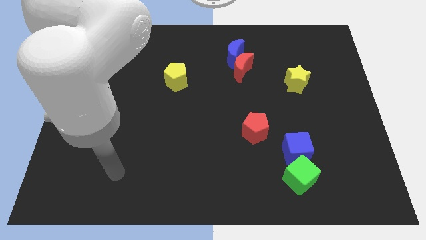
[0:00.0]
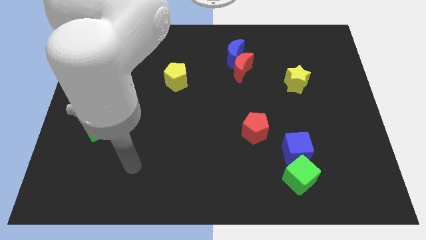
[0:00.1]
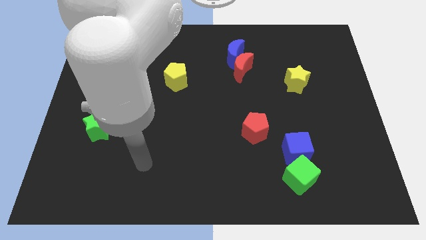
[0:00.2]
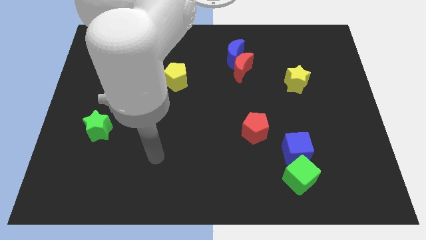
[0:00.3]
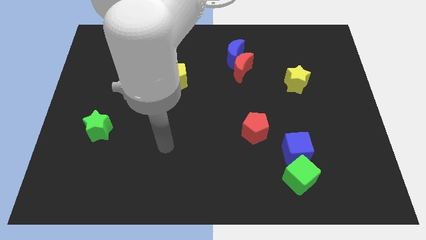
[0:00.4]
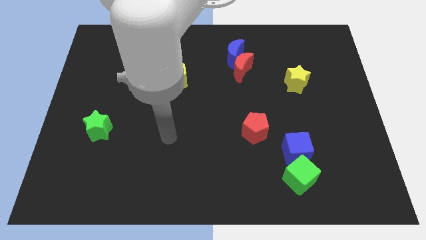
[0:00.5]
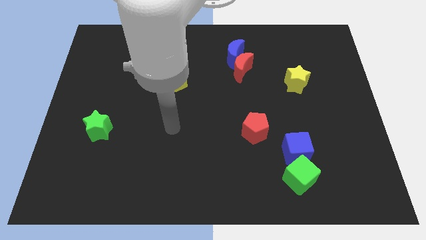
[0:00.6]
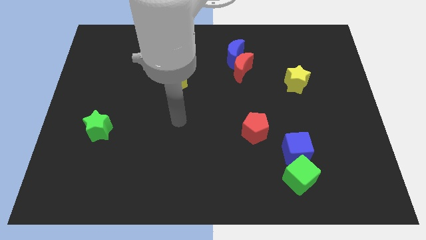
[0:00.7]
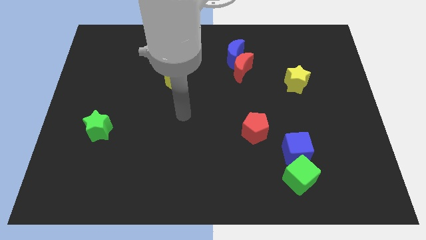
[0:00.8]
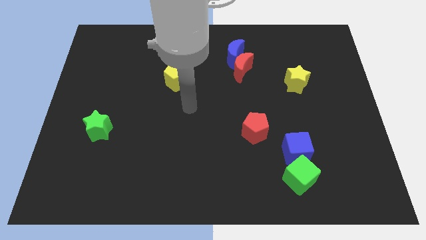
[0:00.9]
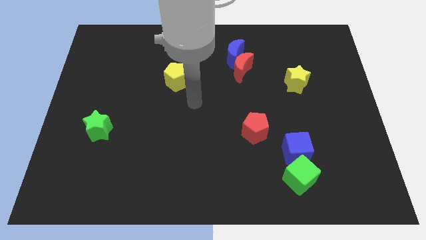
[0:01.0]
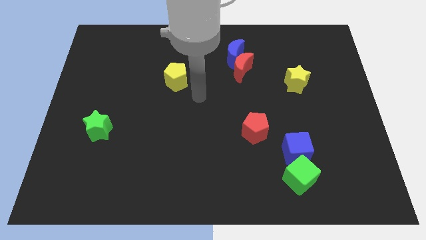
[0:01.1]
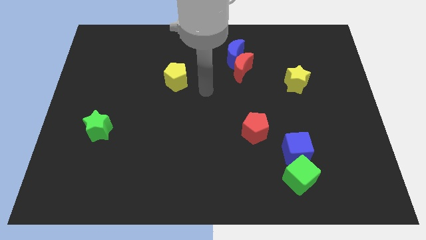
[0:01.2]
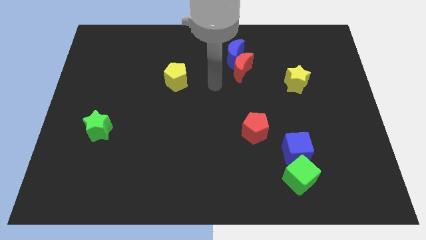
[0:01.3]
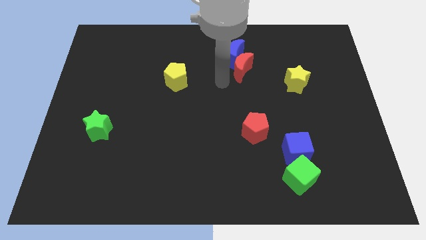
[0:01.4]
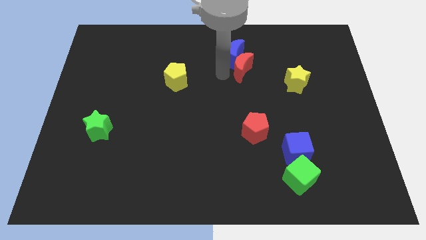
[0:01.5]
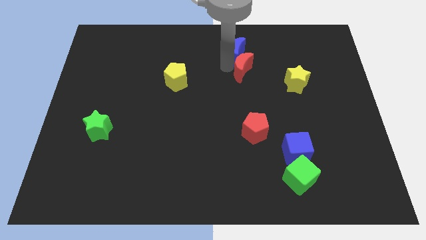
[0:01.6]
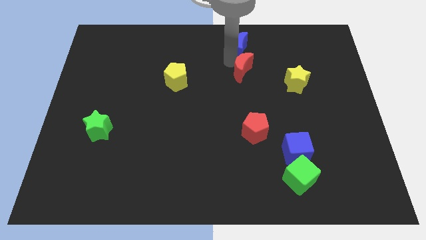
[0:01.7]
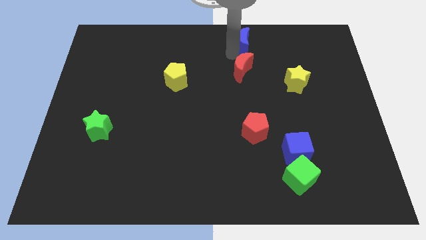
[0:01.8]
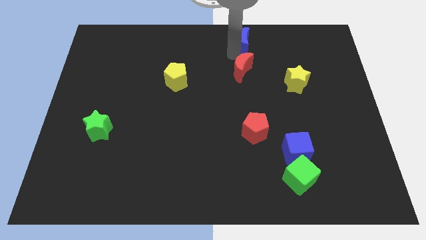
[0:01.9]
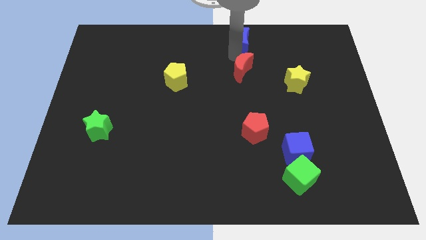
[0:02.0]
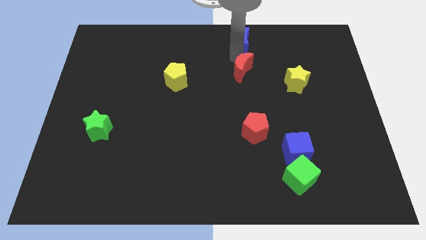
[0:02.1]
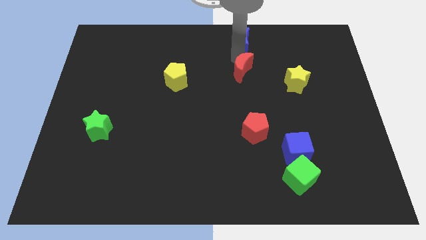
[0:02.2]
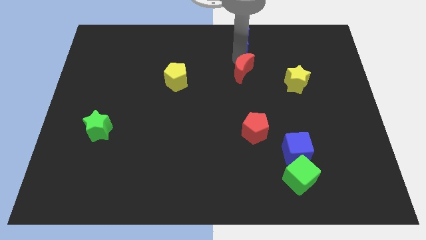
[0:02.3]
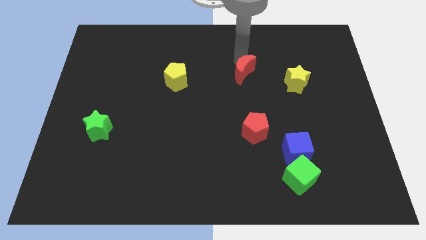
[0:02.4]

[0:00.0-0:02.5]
pull the red moon apart from the blue moon

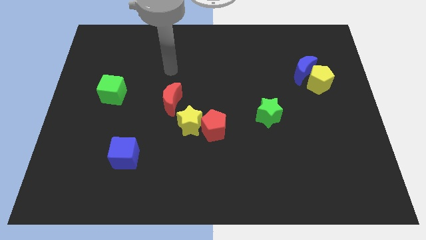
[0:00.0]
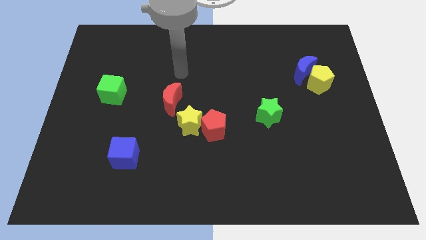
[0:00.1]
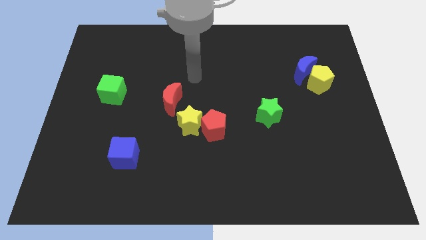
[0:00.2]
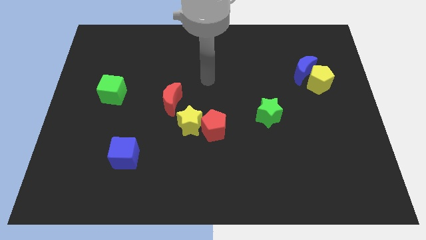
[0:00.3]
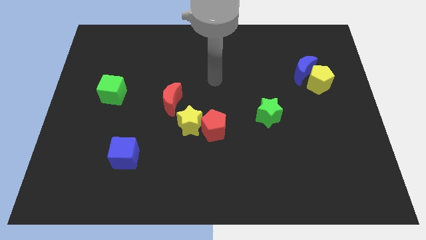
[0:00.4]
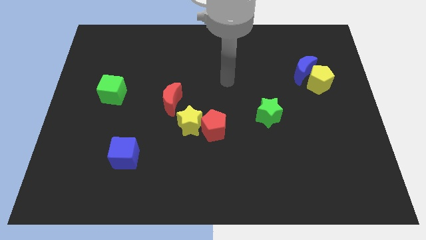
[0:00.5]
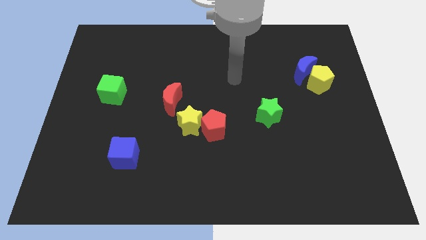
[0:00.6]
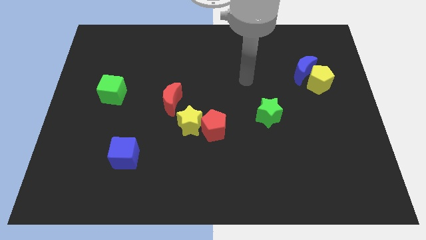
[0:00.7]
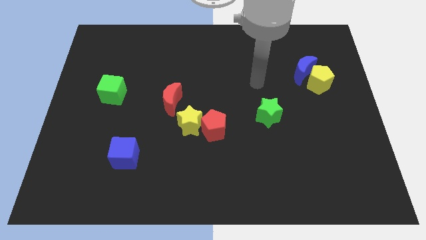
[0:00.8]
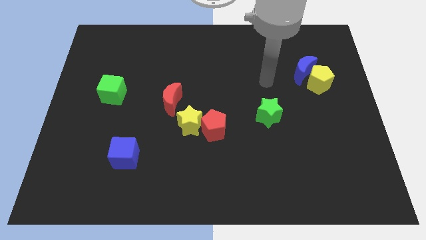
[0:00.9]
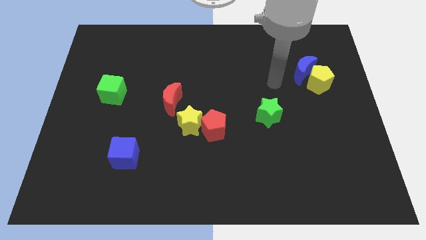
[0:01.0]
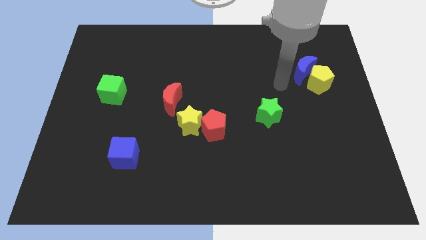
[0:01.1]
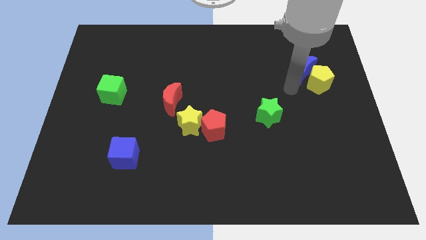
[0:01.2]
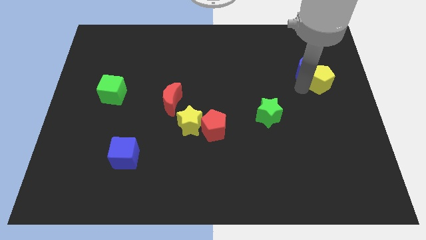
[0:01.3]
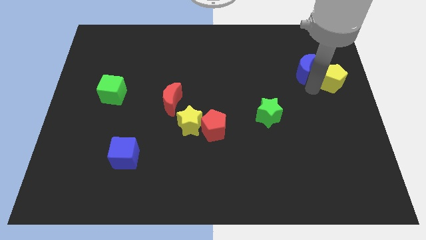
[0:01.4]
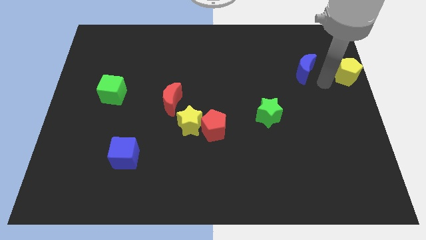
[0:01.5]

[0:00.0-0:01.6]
pull the blue moon apart from the yellow pentagon

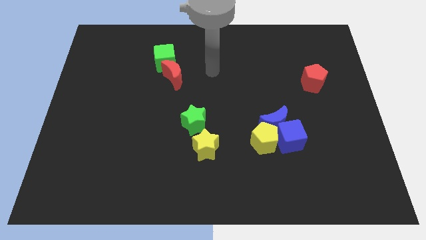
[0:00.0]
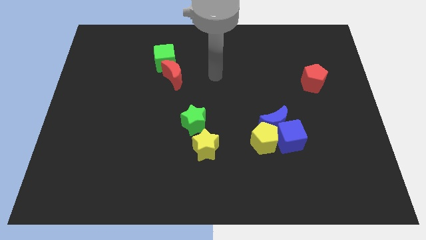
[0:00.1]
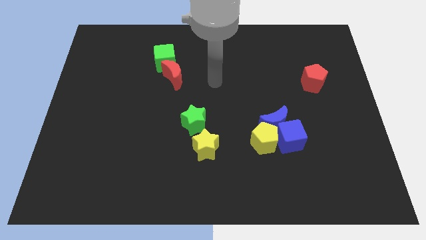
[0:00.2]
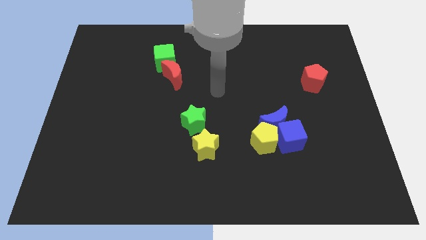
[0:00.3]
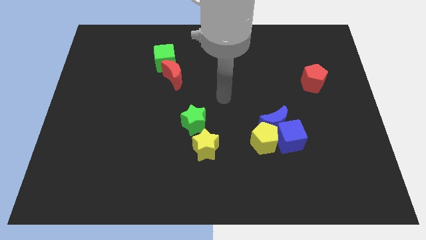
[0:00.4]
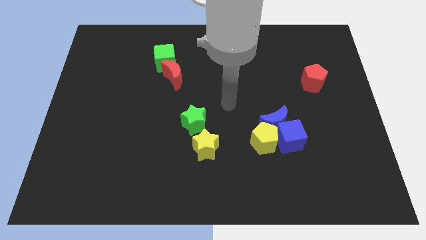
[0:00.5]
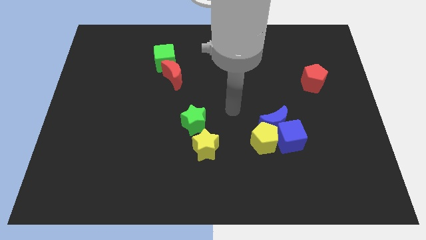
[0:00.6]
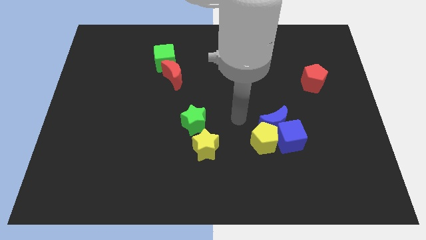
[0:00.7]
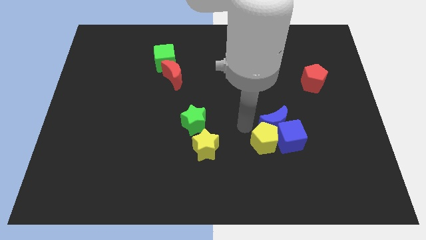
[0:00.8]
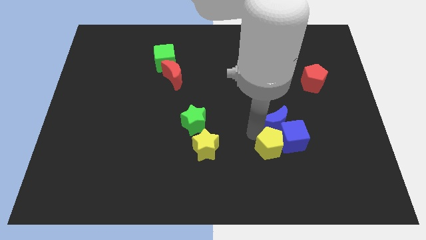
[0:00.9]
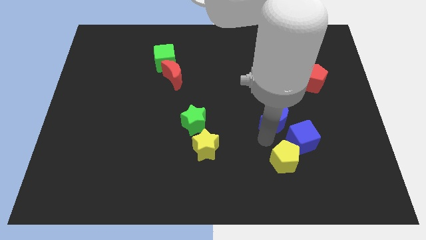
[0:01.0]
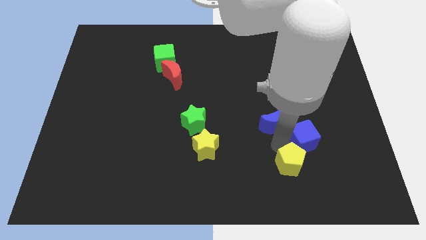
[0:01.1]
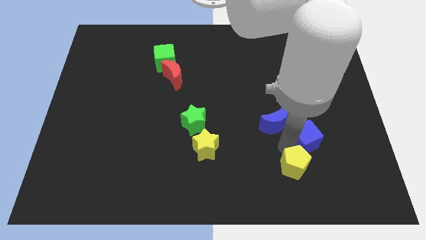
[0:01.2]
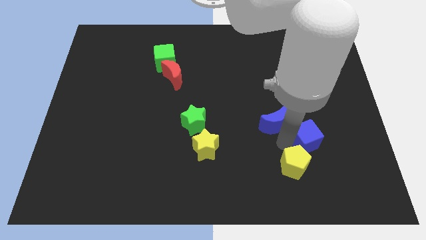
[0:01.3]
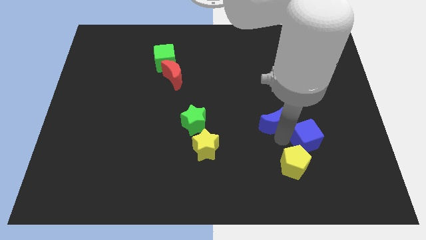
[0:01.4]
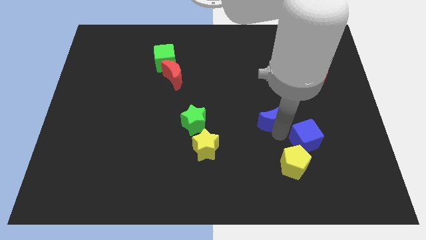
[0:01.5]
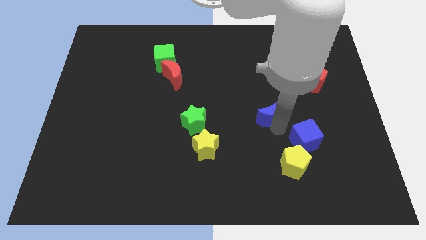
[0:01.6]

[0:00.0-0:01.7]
pull the blue moon apart from the blue cube and yellow pentagon

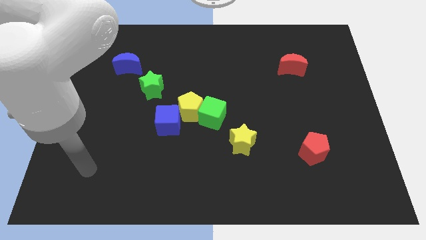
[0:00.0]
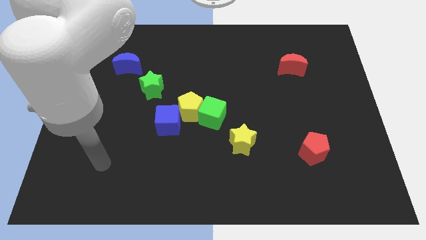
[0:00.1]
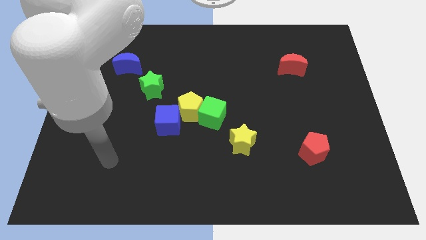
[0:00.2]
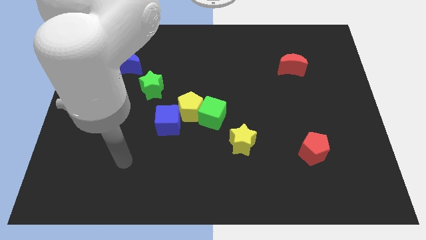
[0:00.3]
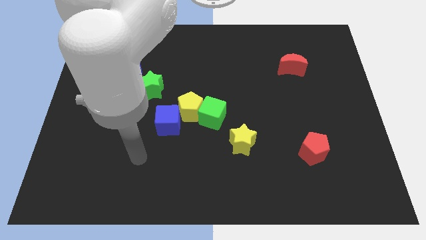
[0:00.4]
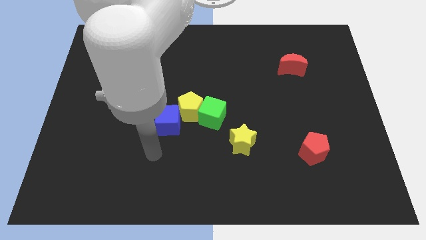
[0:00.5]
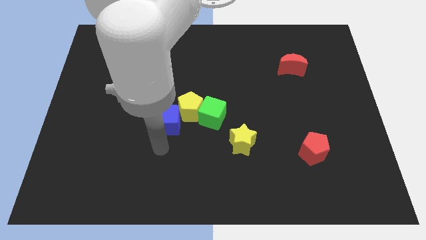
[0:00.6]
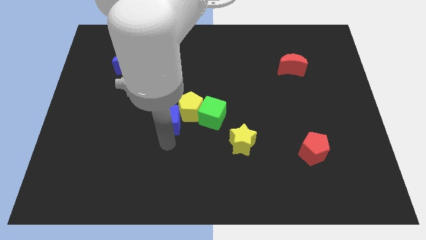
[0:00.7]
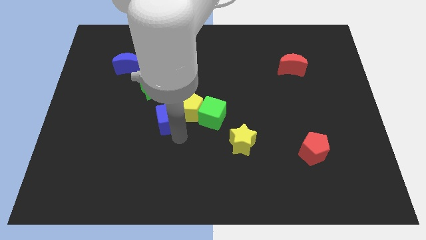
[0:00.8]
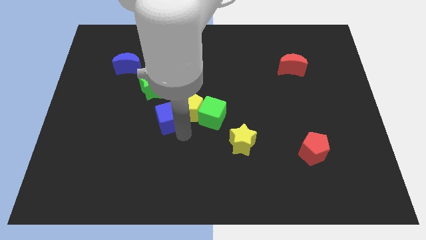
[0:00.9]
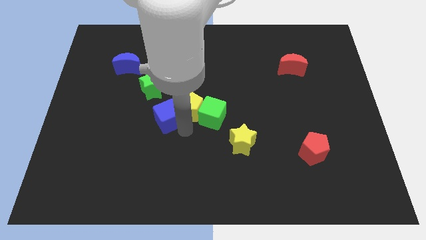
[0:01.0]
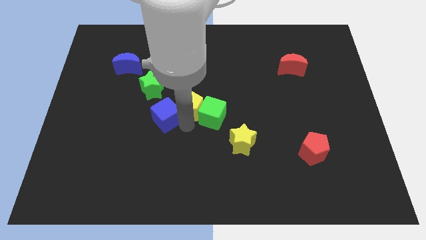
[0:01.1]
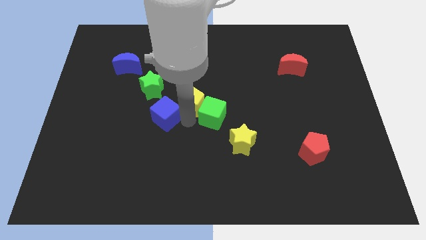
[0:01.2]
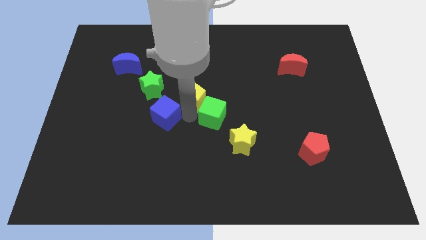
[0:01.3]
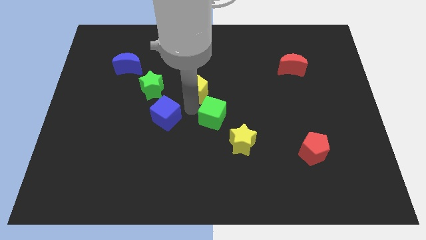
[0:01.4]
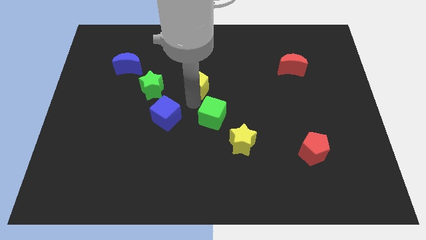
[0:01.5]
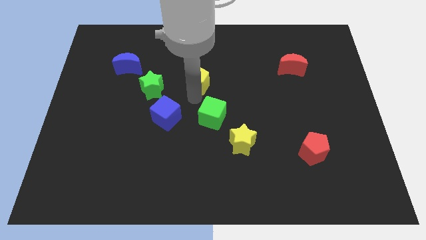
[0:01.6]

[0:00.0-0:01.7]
pull the yellow pentagon apart from the green cube and blue cube

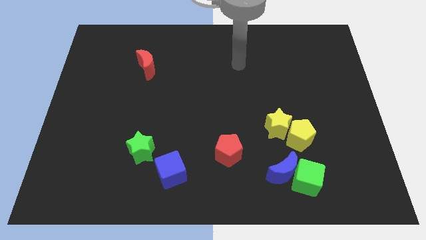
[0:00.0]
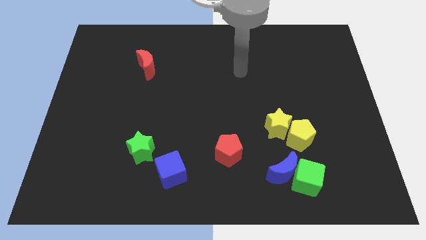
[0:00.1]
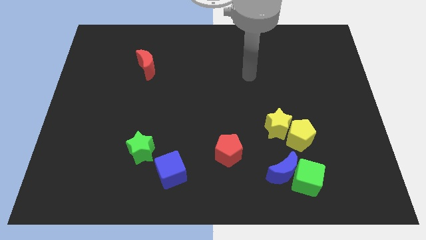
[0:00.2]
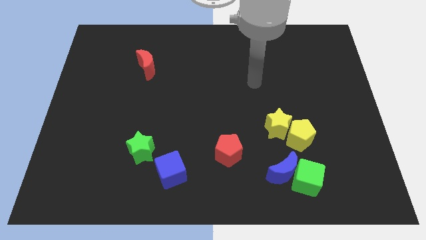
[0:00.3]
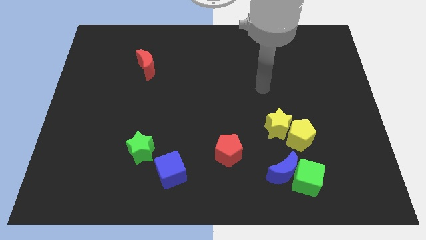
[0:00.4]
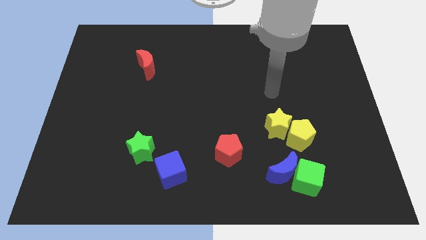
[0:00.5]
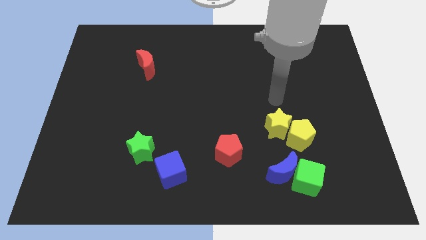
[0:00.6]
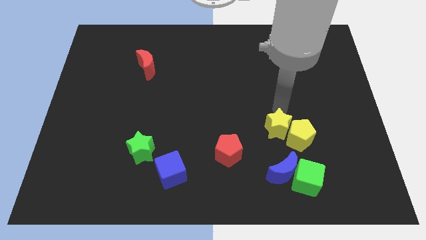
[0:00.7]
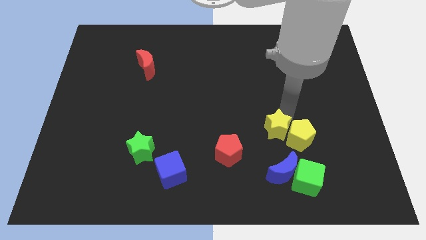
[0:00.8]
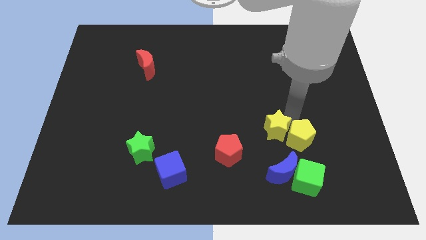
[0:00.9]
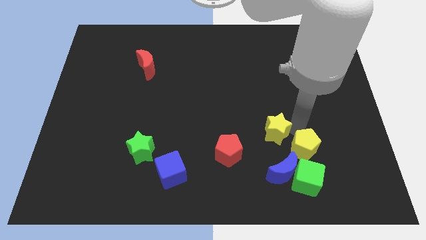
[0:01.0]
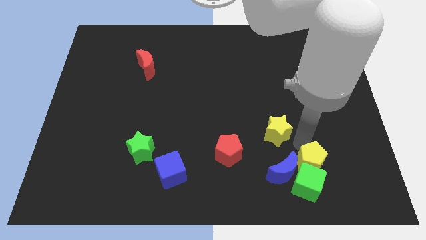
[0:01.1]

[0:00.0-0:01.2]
separate the yellow star from the yellow pentagon

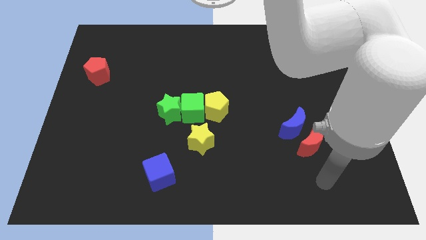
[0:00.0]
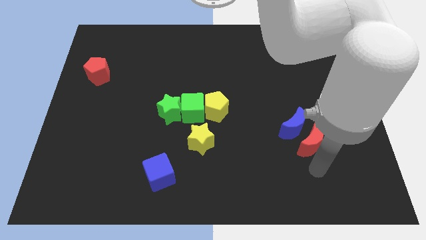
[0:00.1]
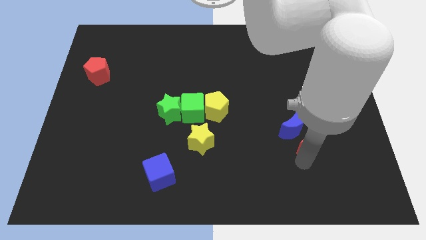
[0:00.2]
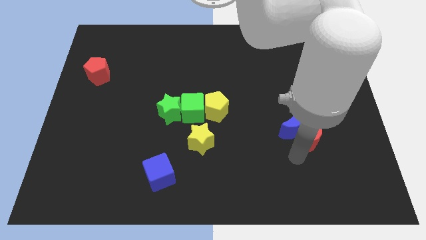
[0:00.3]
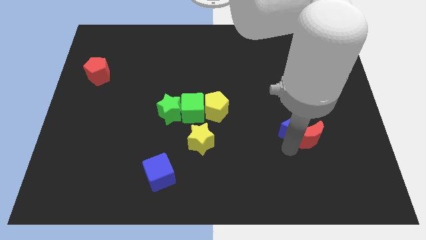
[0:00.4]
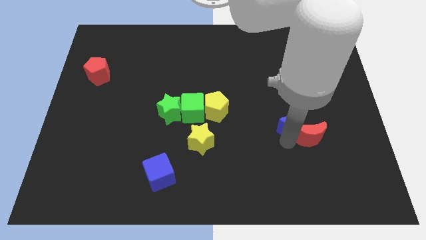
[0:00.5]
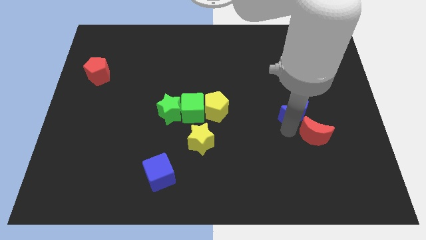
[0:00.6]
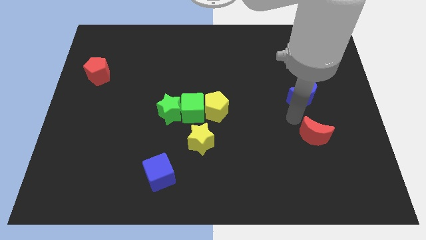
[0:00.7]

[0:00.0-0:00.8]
move the red moon away from the blue moon
